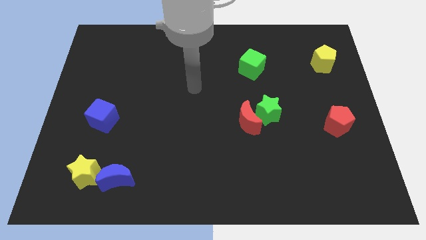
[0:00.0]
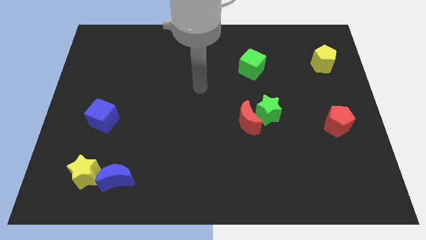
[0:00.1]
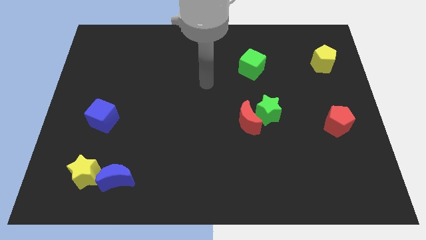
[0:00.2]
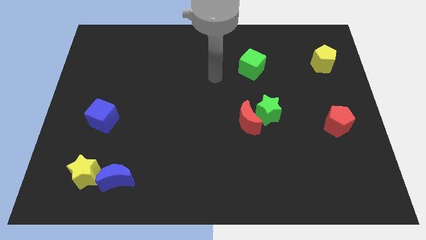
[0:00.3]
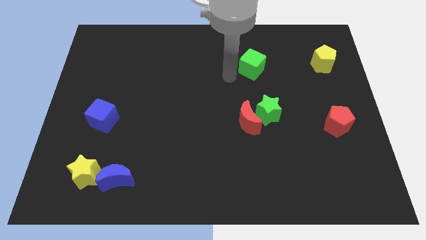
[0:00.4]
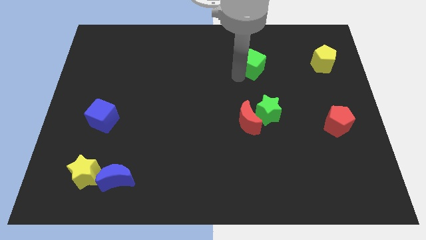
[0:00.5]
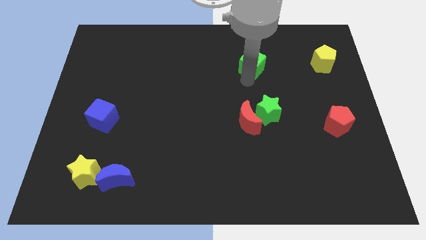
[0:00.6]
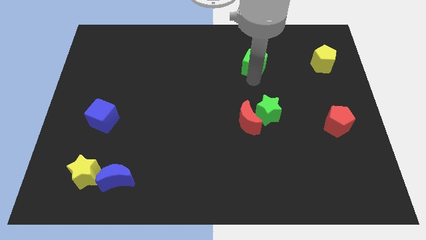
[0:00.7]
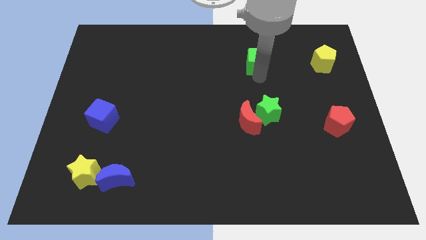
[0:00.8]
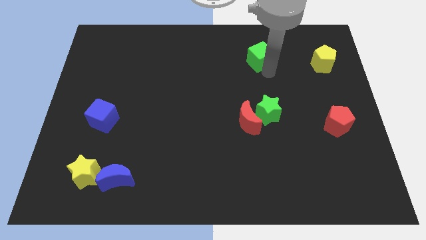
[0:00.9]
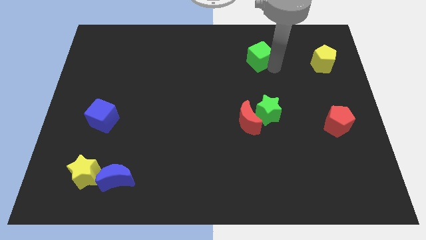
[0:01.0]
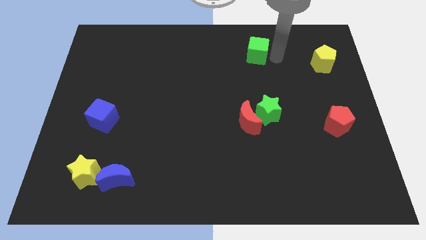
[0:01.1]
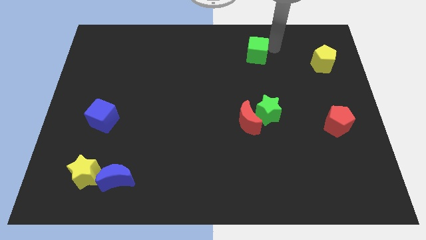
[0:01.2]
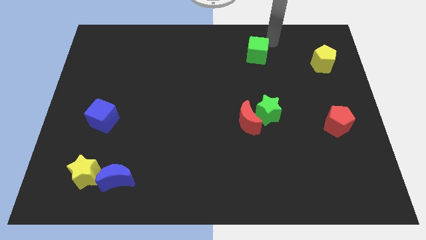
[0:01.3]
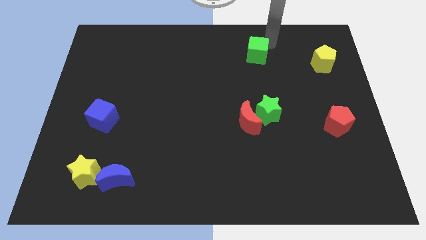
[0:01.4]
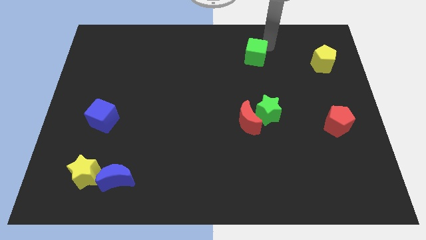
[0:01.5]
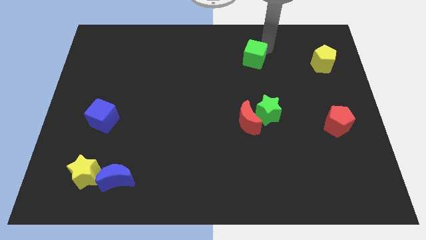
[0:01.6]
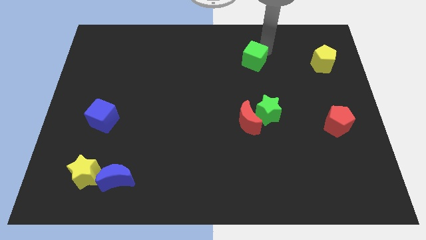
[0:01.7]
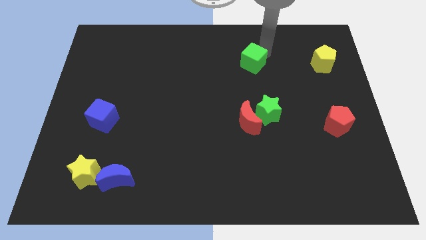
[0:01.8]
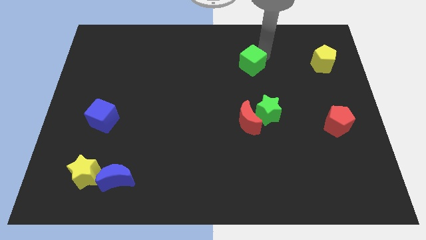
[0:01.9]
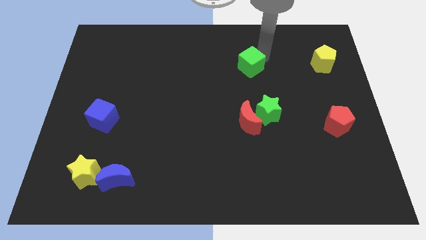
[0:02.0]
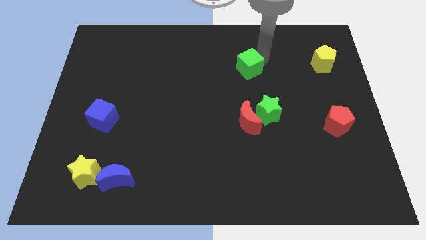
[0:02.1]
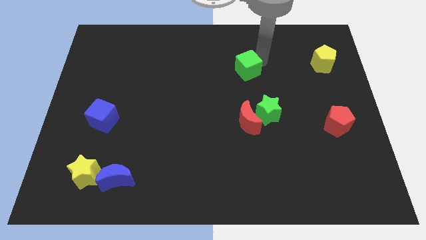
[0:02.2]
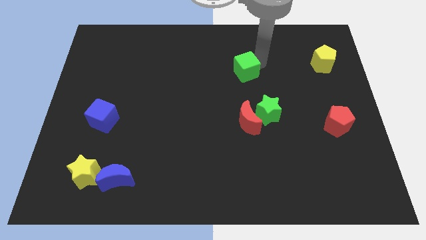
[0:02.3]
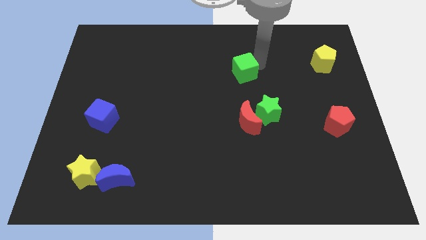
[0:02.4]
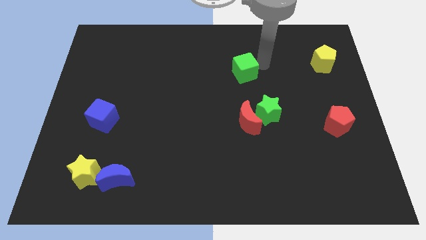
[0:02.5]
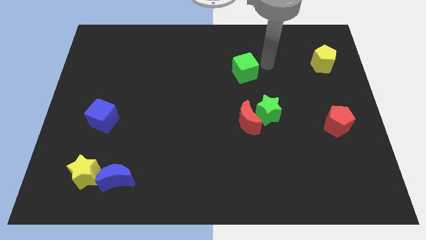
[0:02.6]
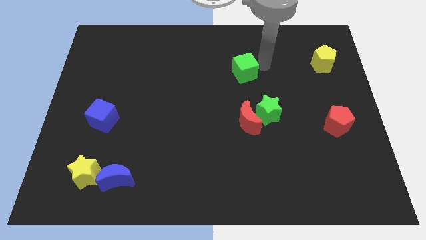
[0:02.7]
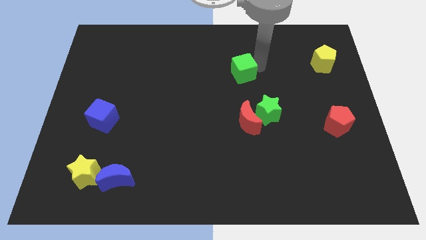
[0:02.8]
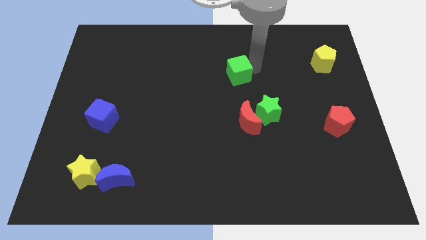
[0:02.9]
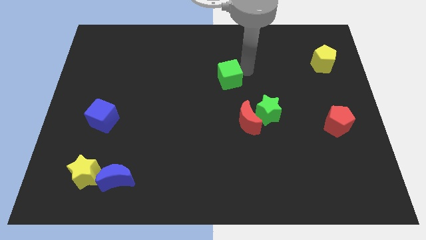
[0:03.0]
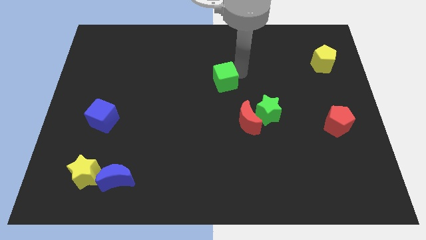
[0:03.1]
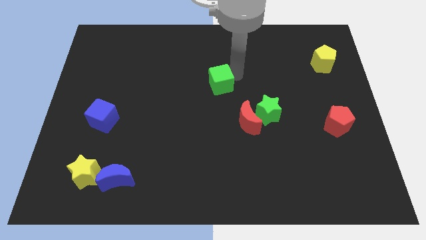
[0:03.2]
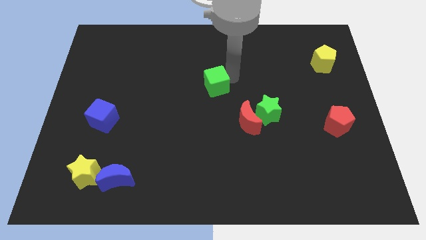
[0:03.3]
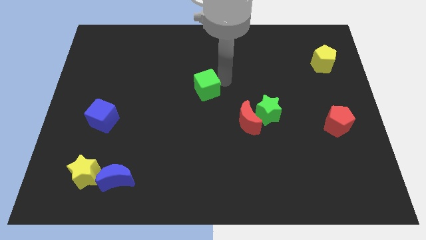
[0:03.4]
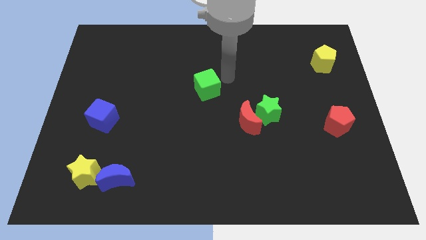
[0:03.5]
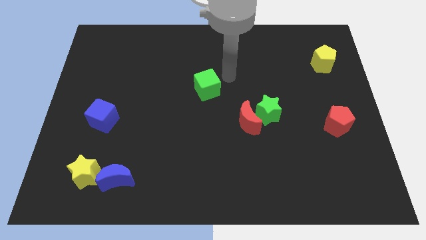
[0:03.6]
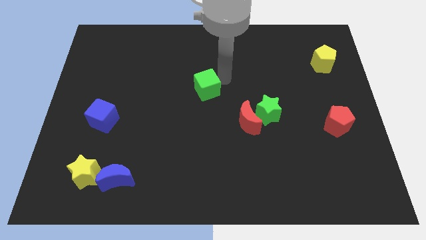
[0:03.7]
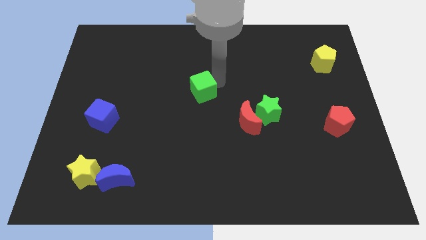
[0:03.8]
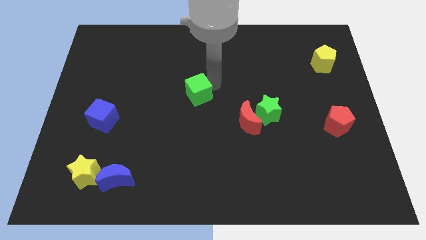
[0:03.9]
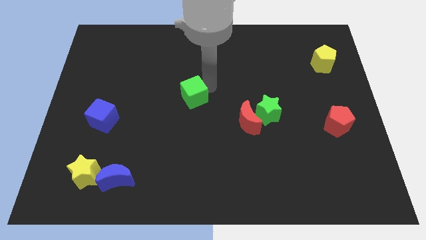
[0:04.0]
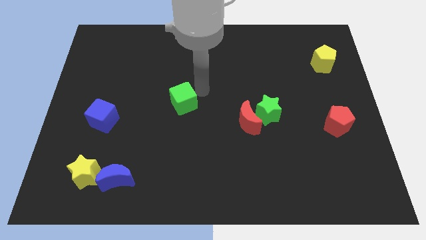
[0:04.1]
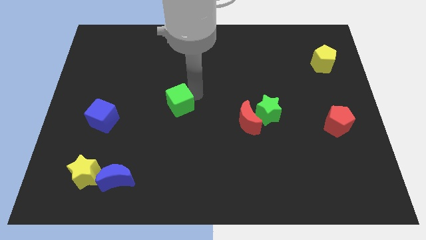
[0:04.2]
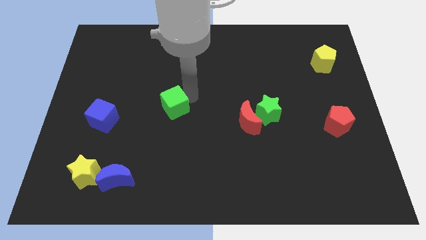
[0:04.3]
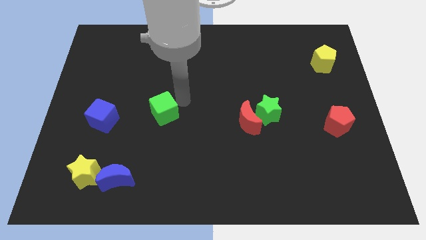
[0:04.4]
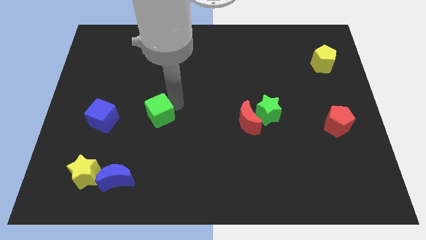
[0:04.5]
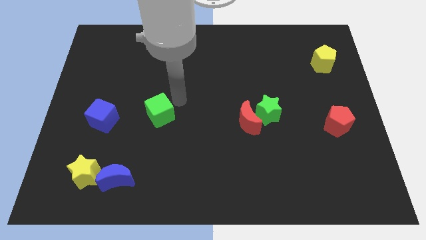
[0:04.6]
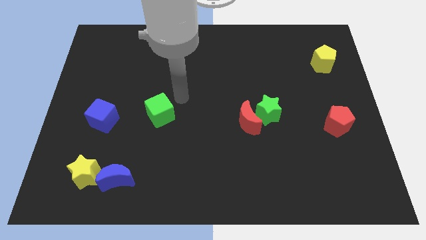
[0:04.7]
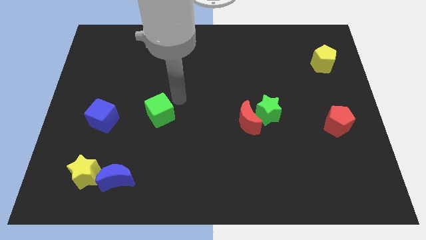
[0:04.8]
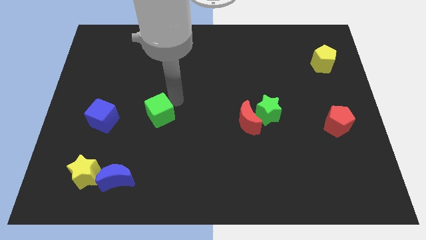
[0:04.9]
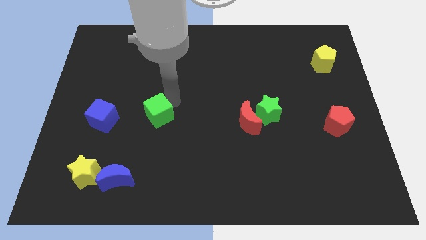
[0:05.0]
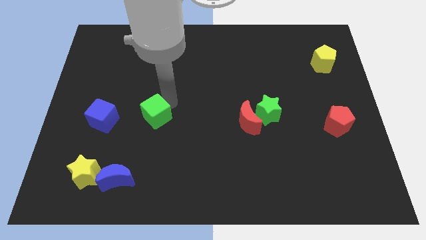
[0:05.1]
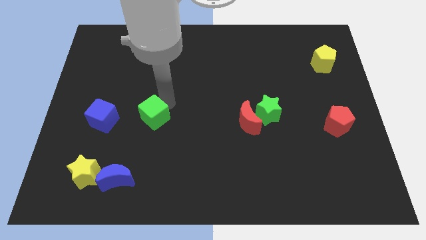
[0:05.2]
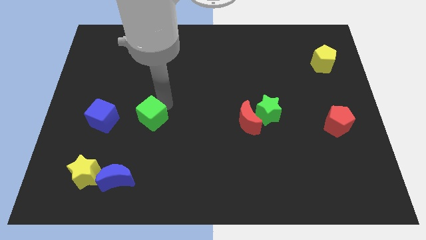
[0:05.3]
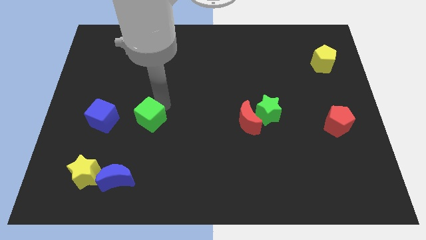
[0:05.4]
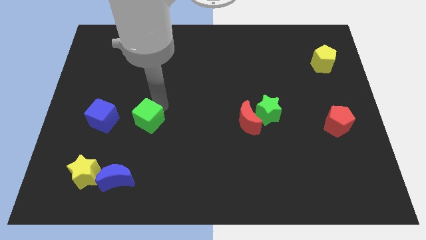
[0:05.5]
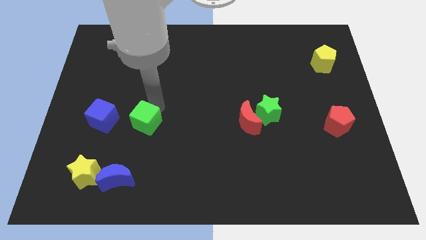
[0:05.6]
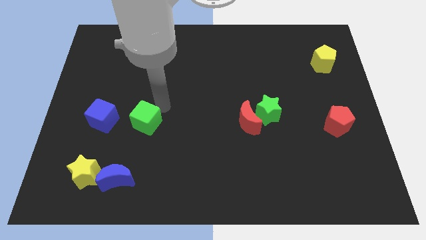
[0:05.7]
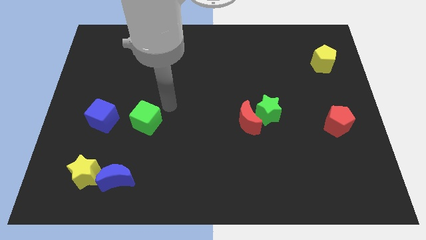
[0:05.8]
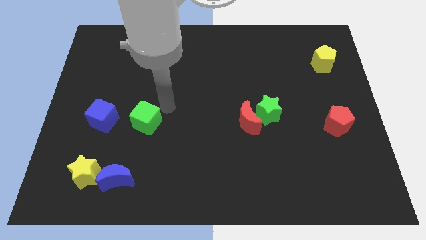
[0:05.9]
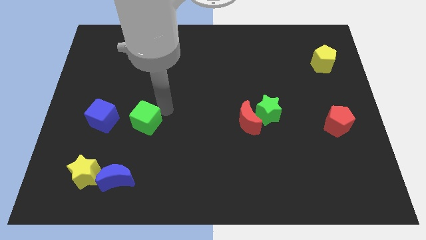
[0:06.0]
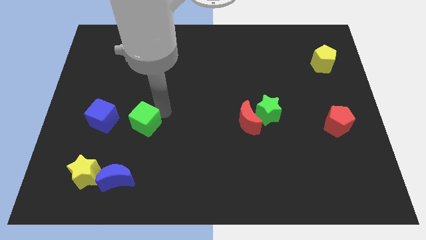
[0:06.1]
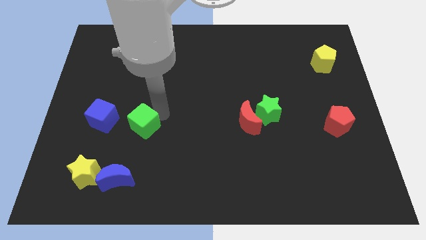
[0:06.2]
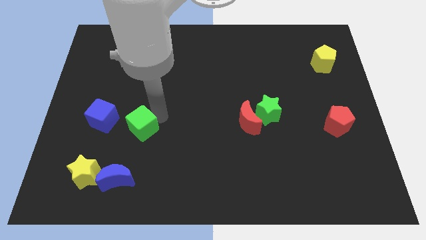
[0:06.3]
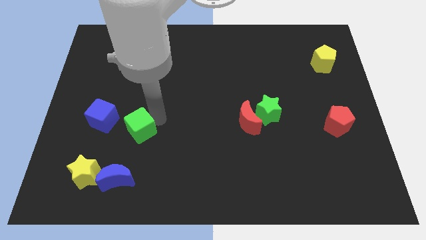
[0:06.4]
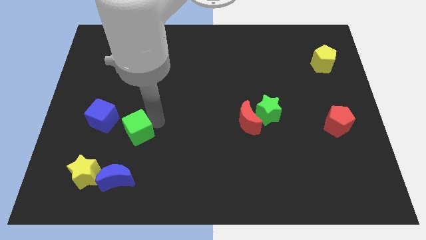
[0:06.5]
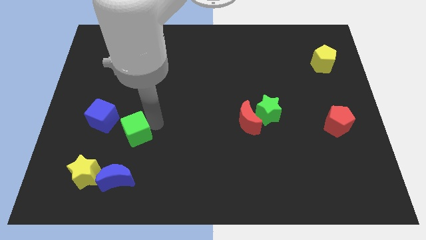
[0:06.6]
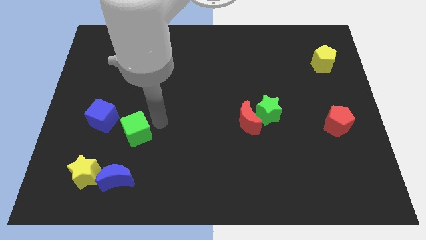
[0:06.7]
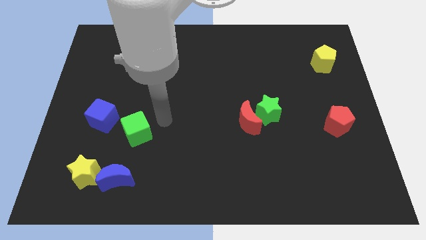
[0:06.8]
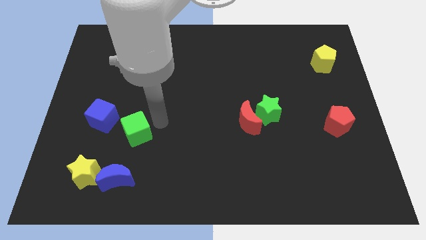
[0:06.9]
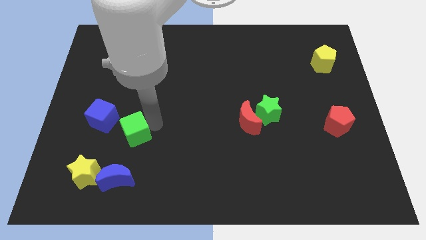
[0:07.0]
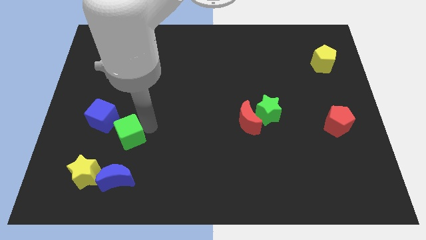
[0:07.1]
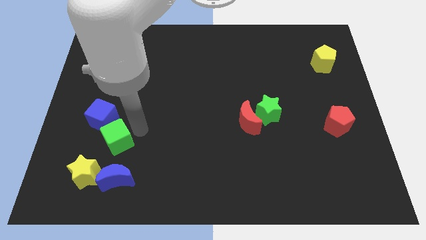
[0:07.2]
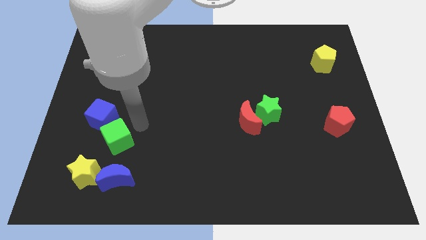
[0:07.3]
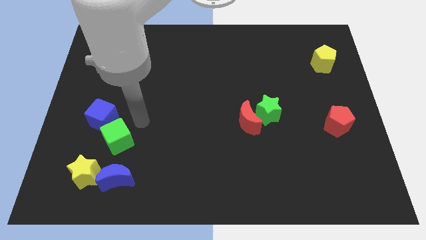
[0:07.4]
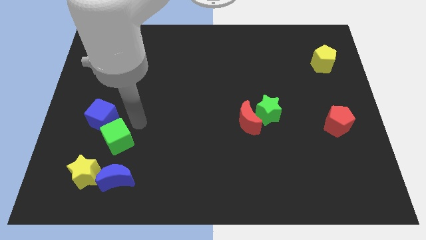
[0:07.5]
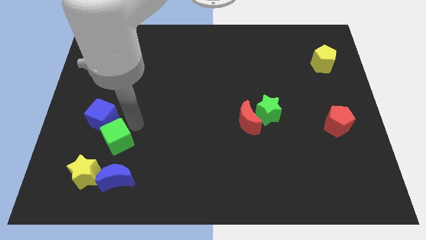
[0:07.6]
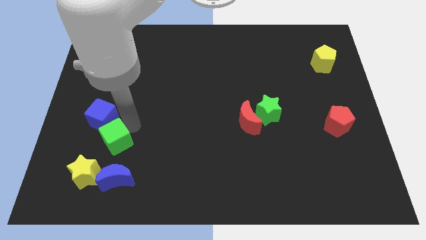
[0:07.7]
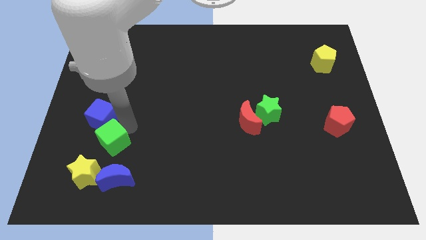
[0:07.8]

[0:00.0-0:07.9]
push the green cube to the top left side of the blue moon
